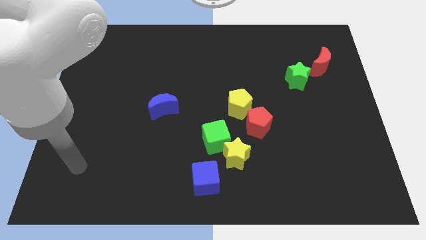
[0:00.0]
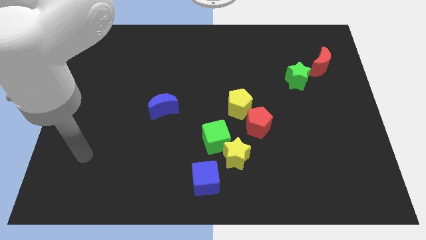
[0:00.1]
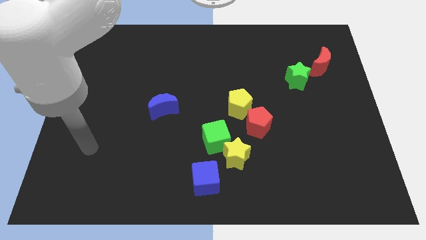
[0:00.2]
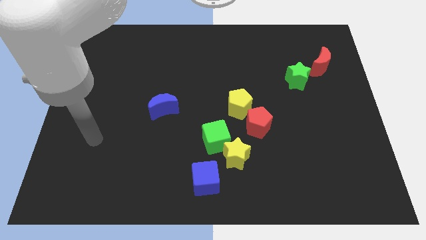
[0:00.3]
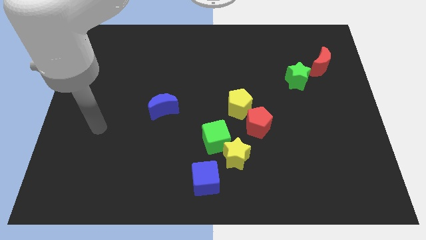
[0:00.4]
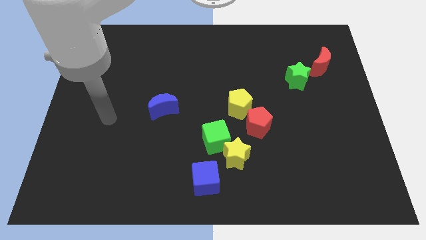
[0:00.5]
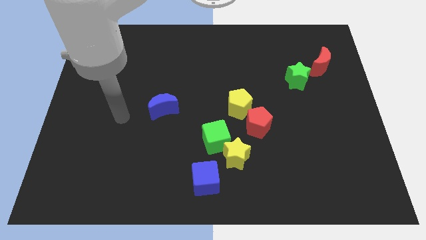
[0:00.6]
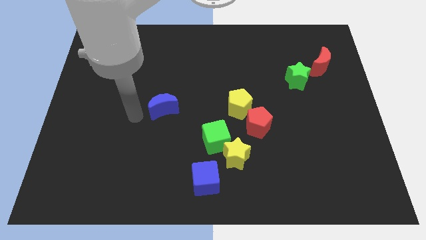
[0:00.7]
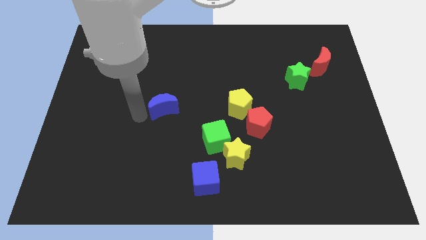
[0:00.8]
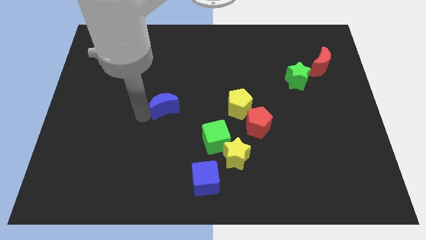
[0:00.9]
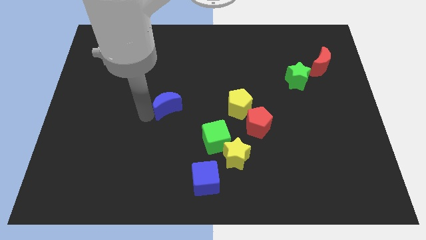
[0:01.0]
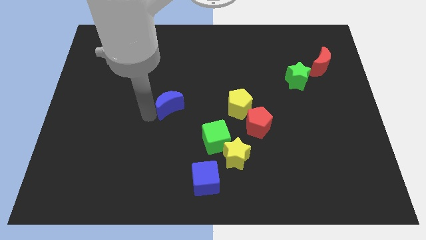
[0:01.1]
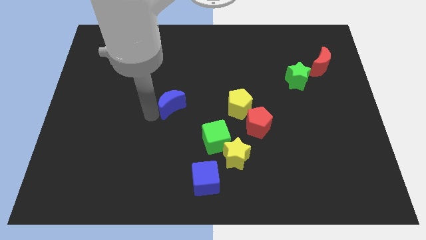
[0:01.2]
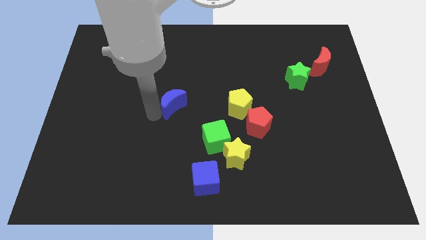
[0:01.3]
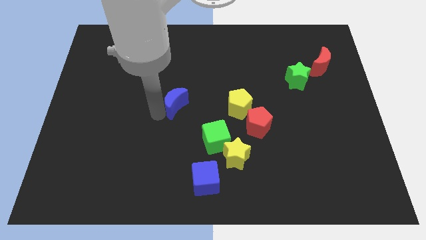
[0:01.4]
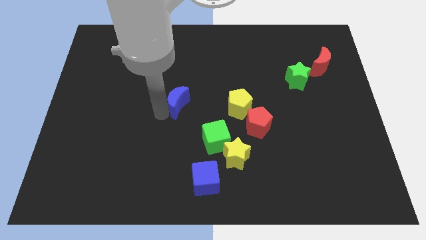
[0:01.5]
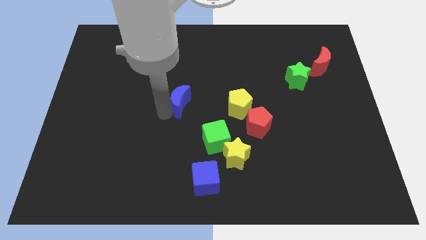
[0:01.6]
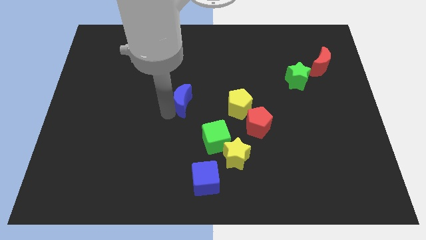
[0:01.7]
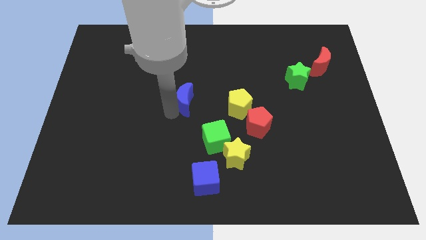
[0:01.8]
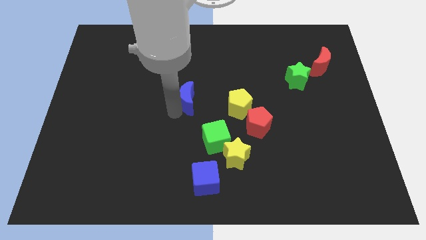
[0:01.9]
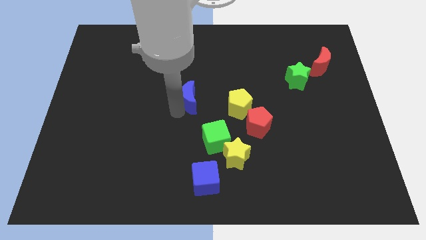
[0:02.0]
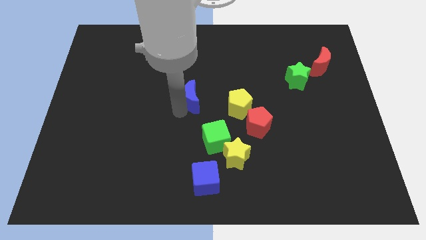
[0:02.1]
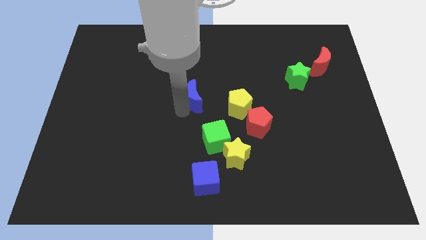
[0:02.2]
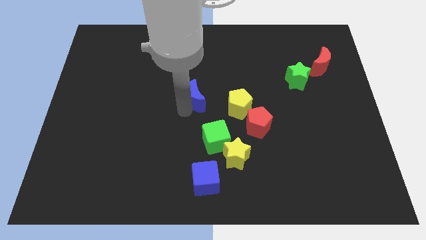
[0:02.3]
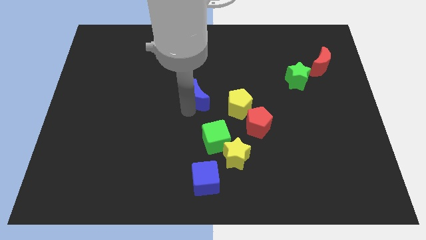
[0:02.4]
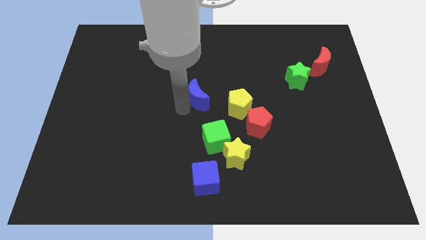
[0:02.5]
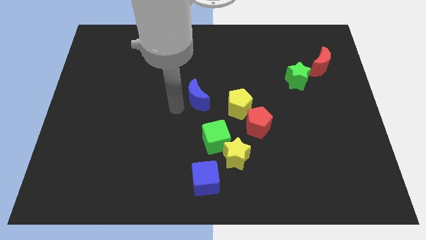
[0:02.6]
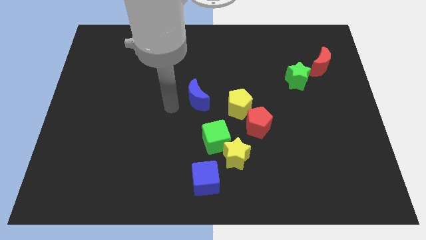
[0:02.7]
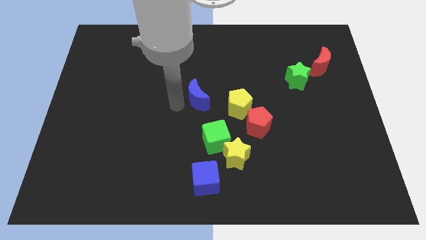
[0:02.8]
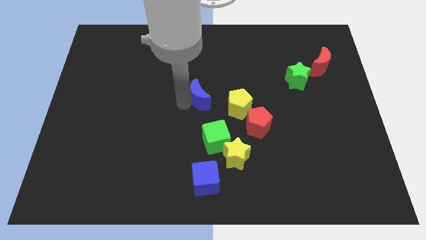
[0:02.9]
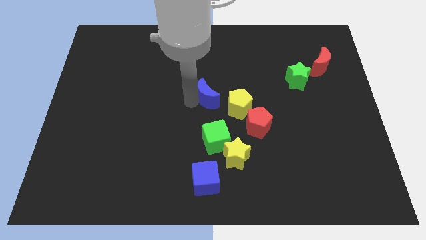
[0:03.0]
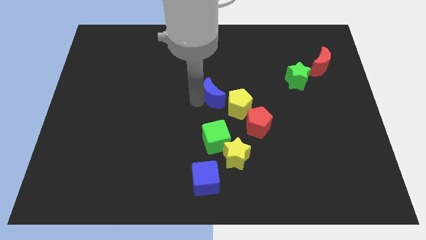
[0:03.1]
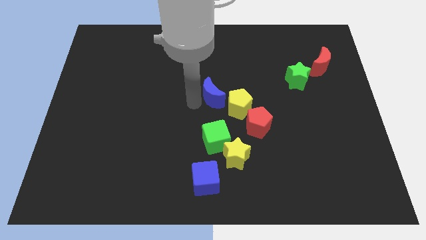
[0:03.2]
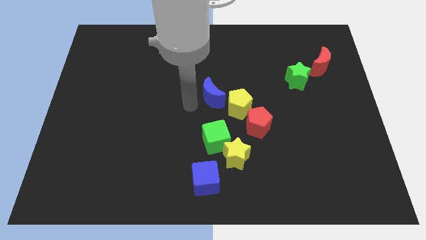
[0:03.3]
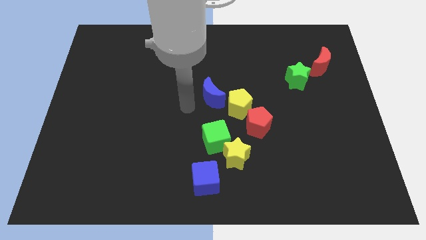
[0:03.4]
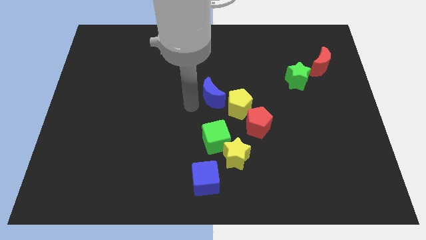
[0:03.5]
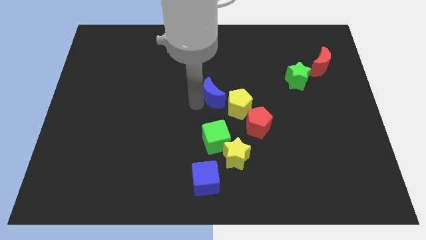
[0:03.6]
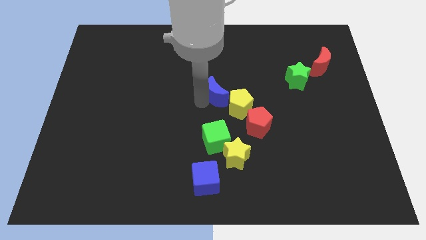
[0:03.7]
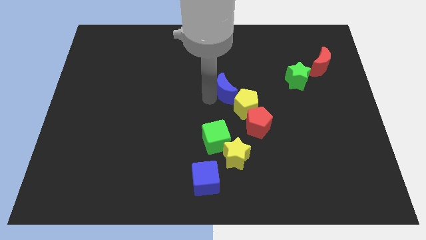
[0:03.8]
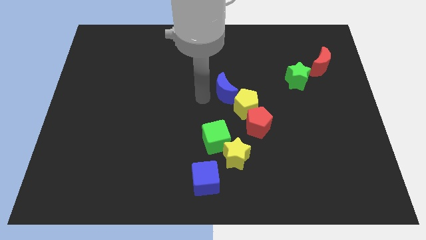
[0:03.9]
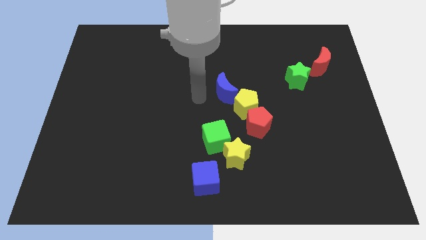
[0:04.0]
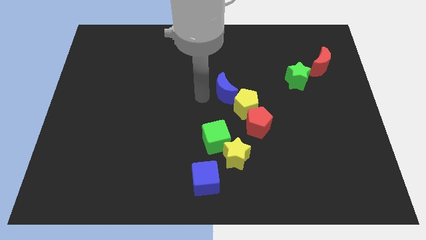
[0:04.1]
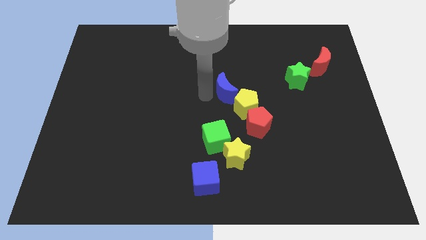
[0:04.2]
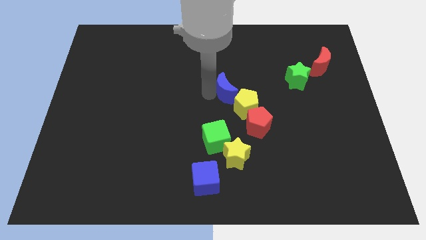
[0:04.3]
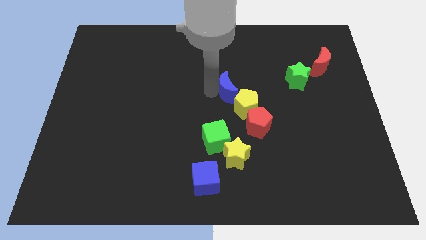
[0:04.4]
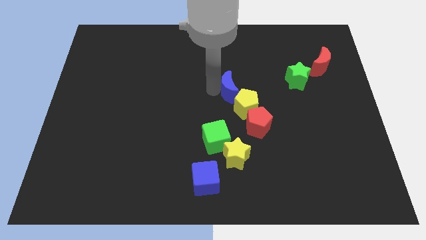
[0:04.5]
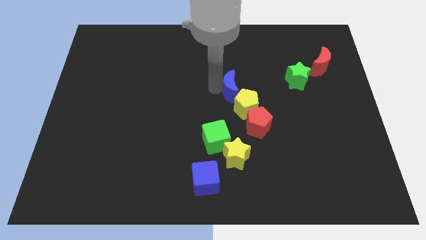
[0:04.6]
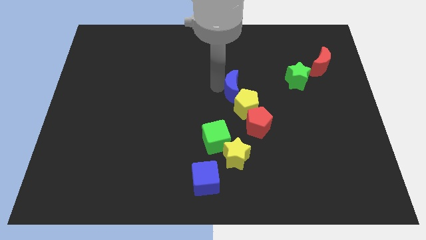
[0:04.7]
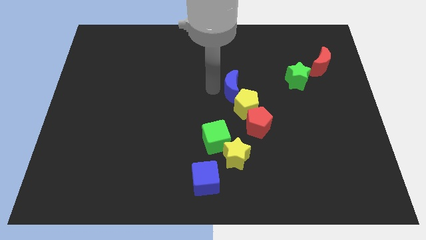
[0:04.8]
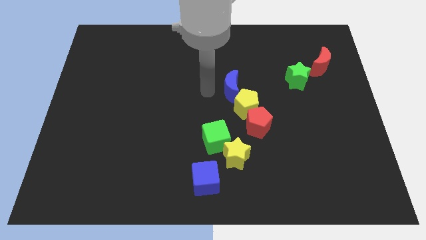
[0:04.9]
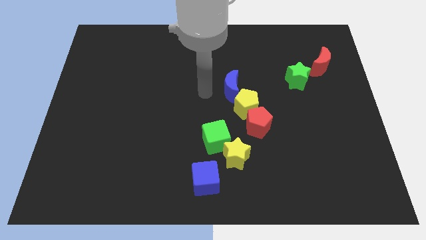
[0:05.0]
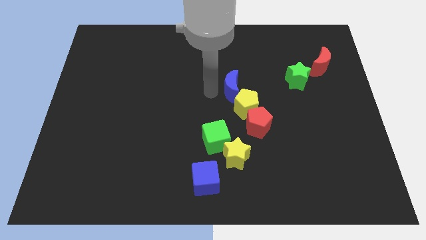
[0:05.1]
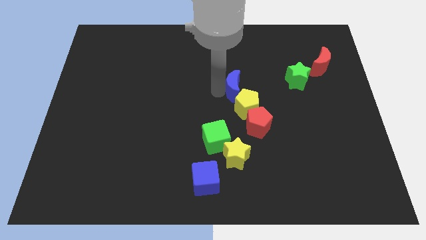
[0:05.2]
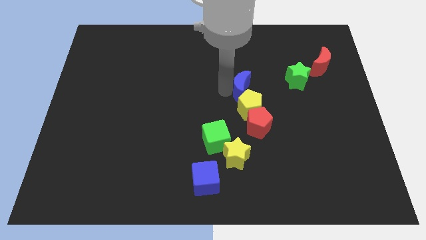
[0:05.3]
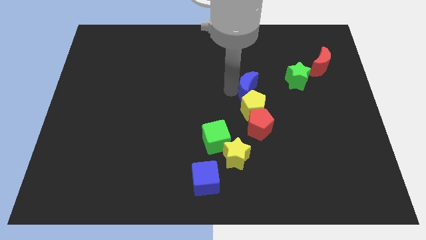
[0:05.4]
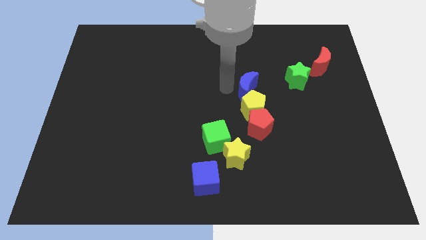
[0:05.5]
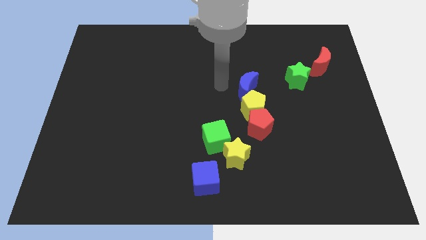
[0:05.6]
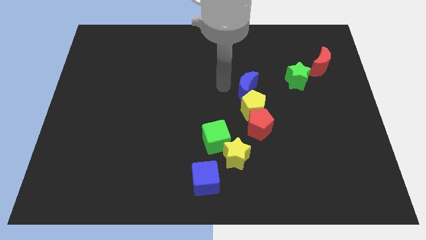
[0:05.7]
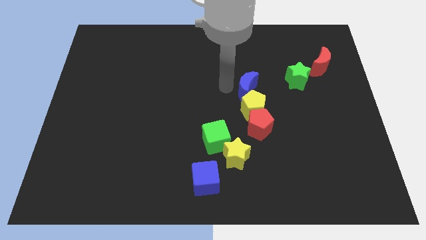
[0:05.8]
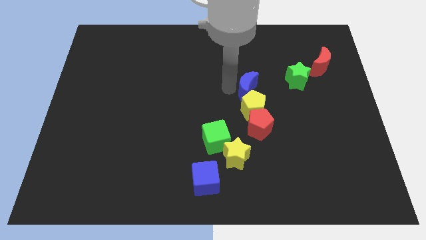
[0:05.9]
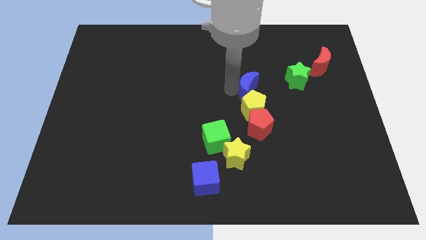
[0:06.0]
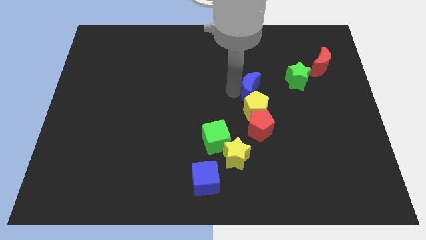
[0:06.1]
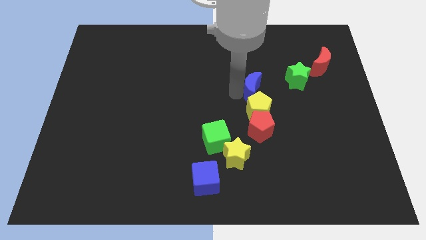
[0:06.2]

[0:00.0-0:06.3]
move the blue moon right

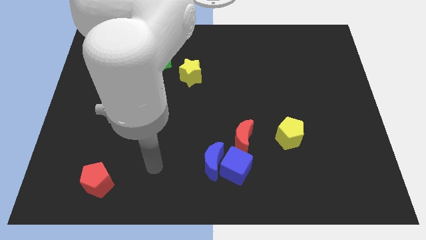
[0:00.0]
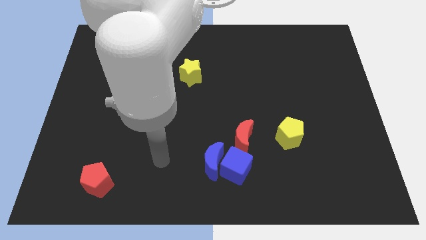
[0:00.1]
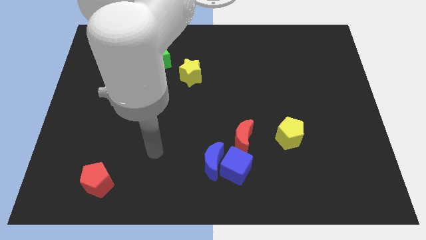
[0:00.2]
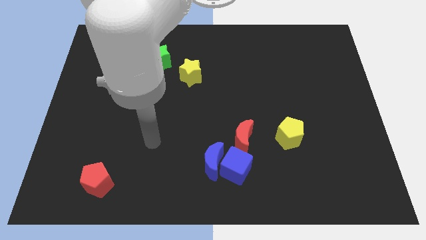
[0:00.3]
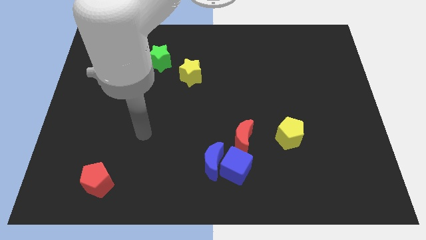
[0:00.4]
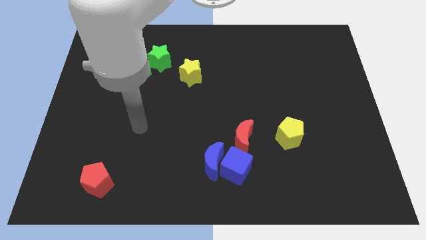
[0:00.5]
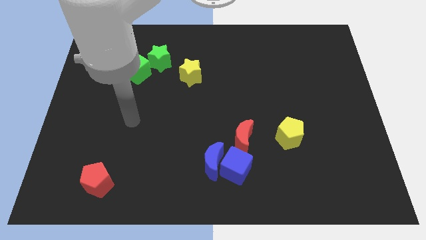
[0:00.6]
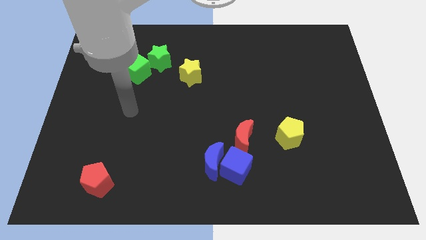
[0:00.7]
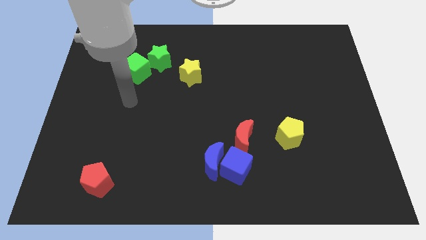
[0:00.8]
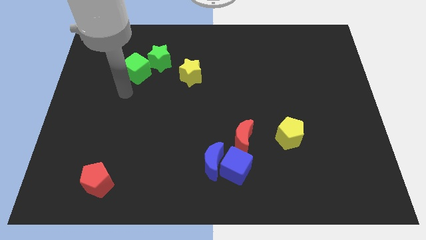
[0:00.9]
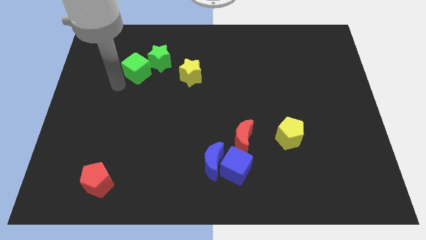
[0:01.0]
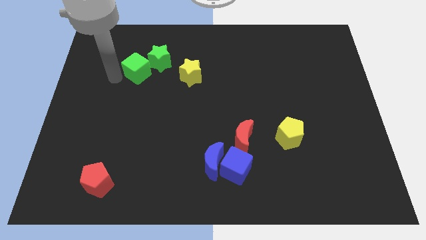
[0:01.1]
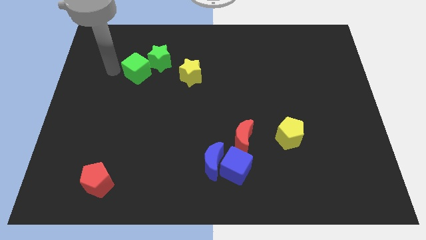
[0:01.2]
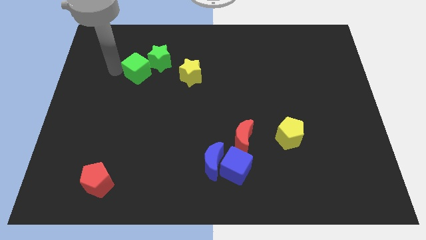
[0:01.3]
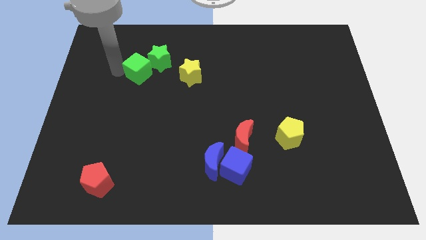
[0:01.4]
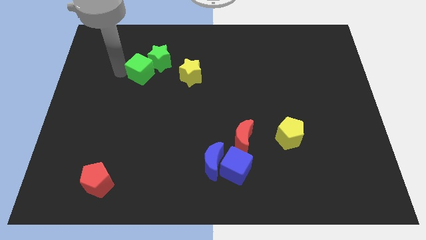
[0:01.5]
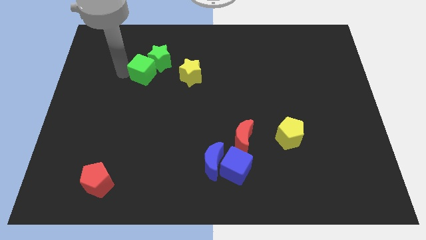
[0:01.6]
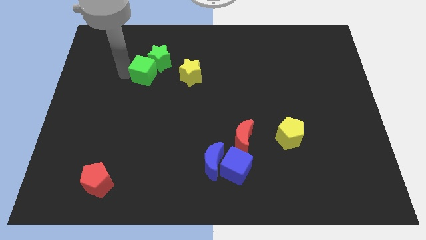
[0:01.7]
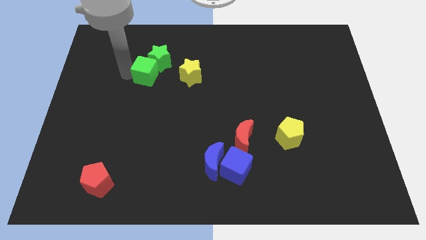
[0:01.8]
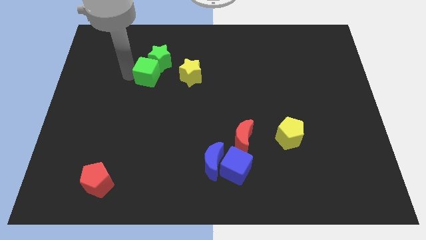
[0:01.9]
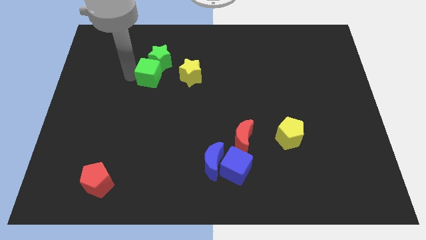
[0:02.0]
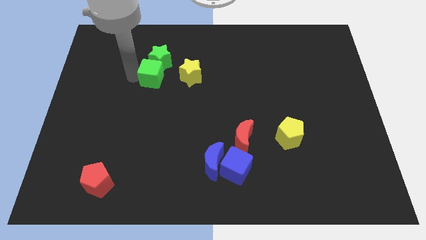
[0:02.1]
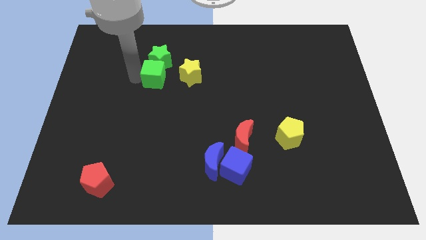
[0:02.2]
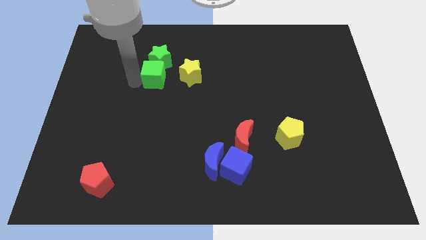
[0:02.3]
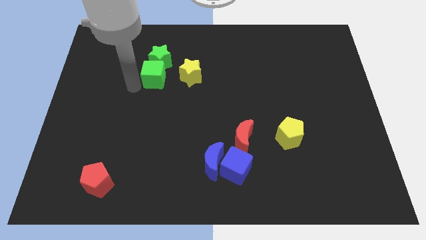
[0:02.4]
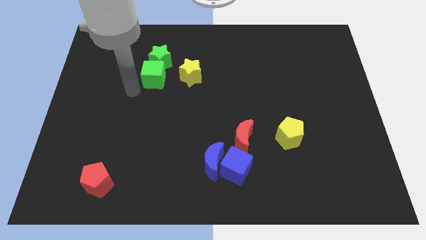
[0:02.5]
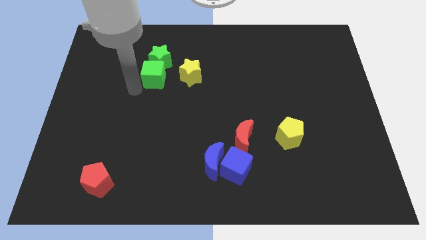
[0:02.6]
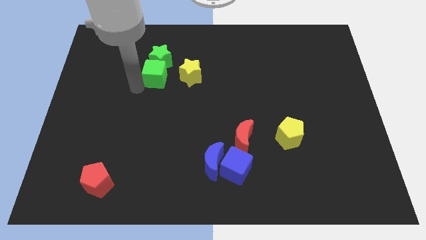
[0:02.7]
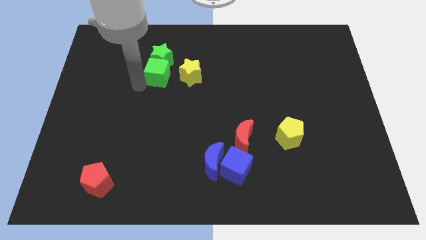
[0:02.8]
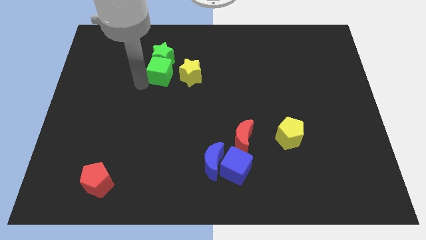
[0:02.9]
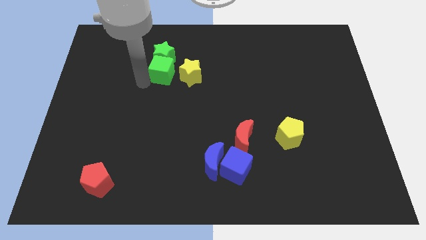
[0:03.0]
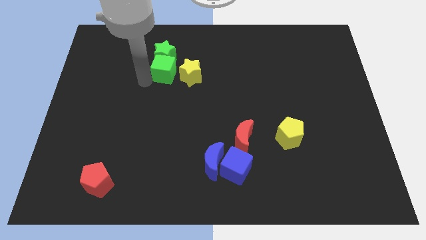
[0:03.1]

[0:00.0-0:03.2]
move the green cube a little to the right
